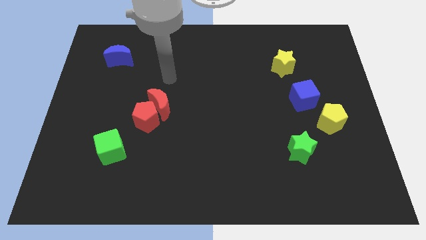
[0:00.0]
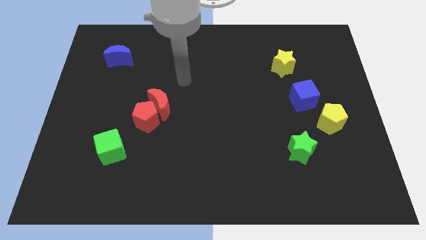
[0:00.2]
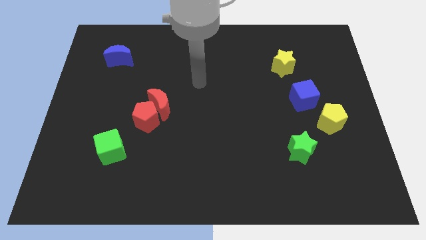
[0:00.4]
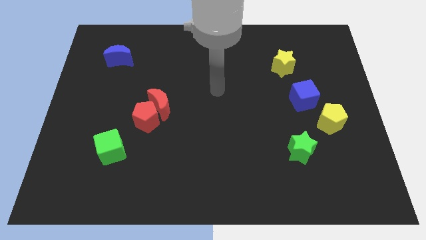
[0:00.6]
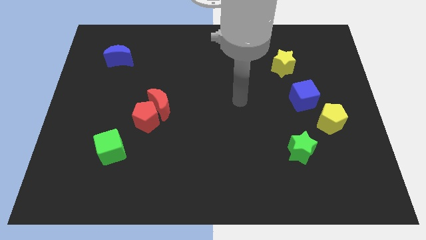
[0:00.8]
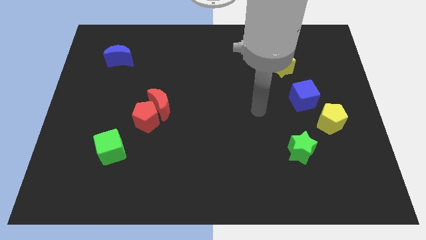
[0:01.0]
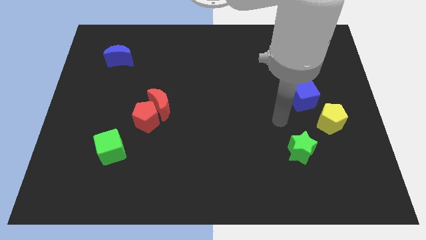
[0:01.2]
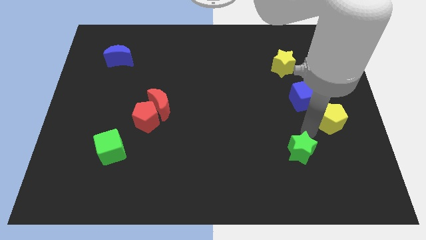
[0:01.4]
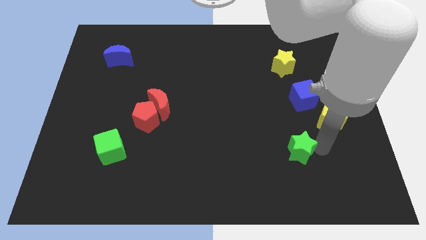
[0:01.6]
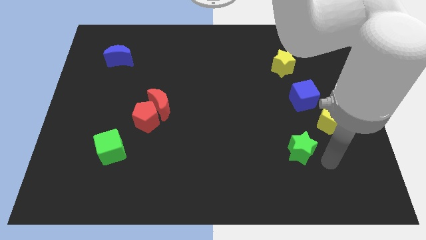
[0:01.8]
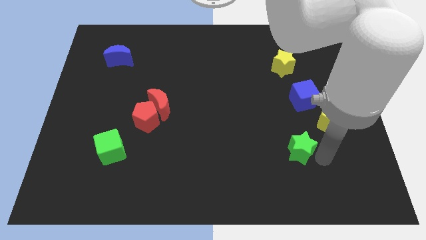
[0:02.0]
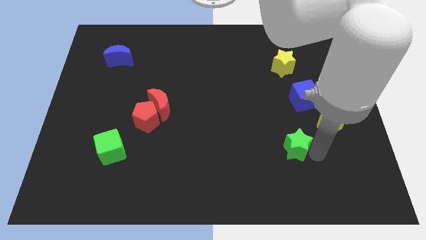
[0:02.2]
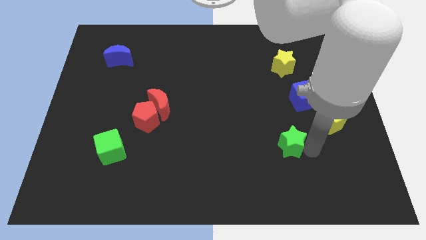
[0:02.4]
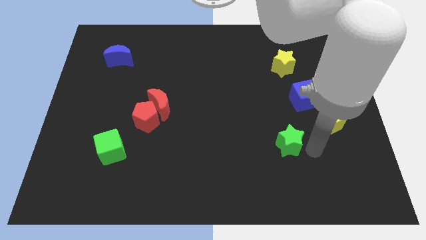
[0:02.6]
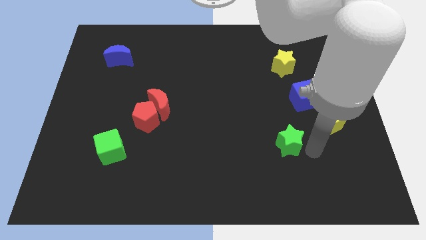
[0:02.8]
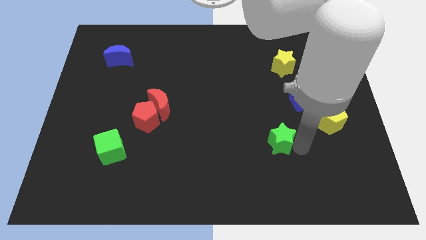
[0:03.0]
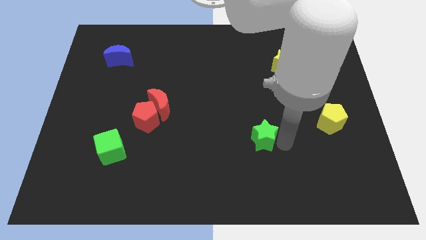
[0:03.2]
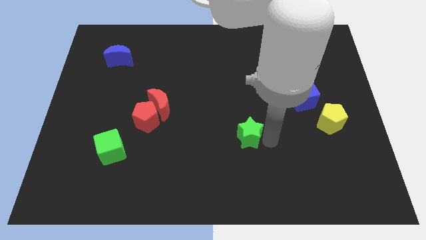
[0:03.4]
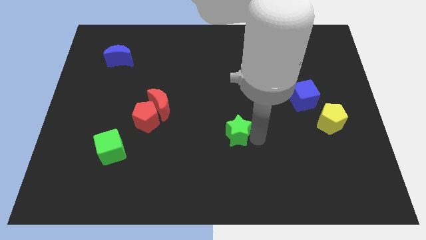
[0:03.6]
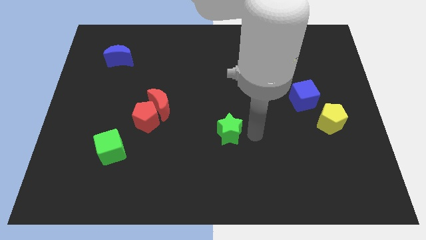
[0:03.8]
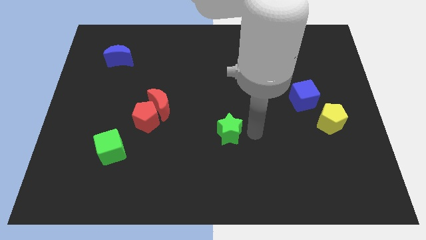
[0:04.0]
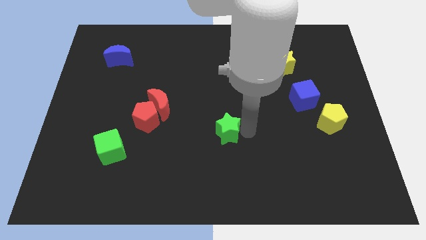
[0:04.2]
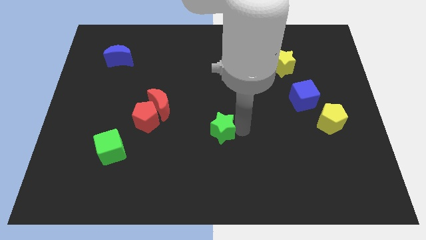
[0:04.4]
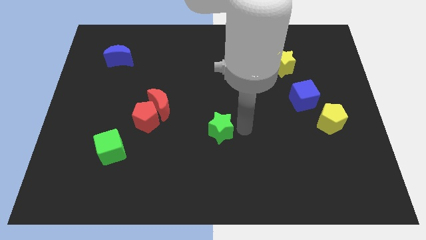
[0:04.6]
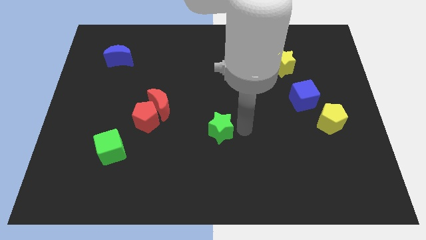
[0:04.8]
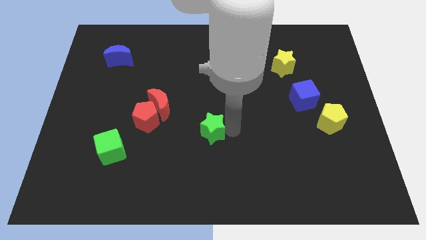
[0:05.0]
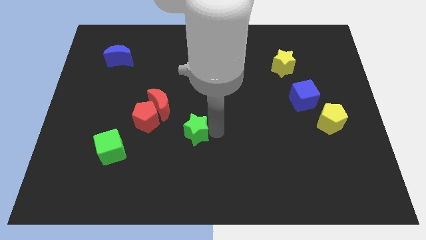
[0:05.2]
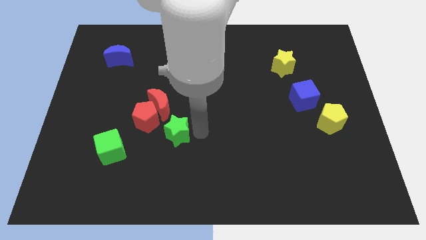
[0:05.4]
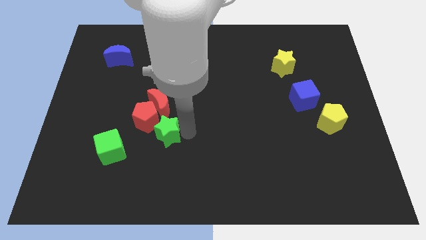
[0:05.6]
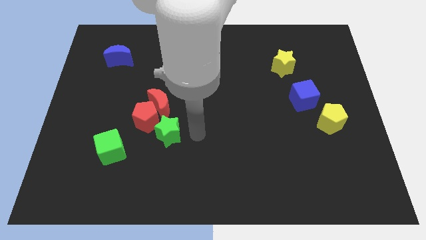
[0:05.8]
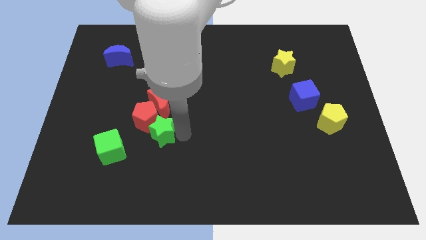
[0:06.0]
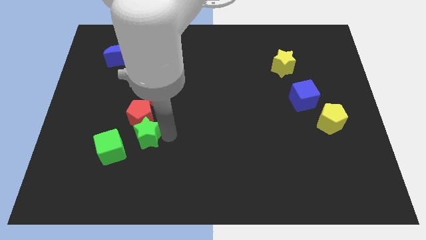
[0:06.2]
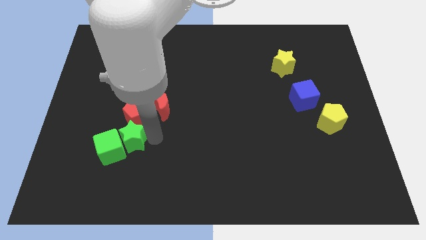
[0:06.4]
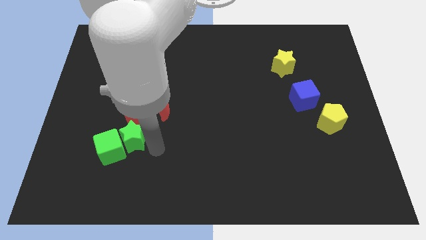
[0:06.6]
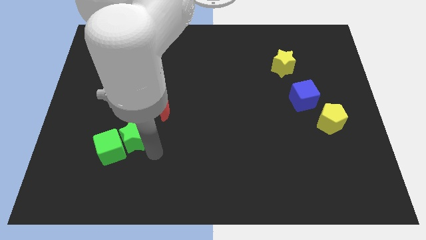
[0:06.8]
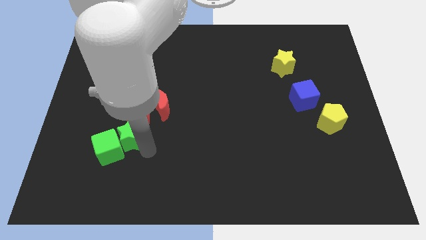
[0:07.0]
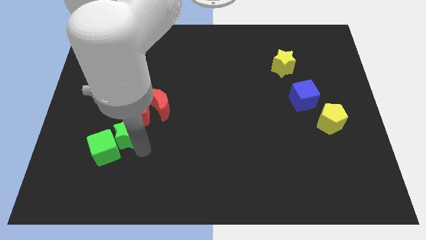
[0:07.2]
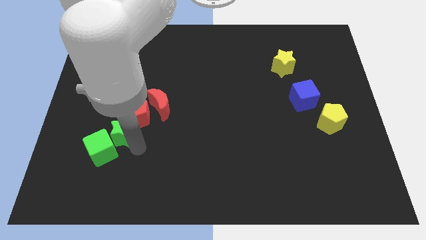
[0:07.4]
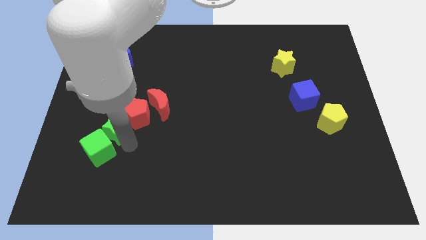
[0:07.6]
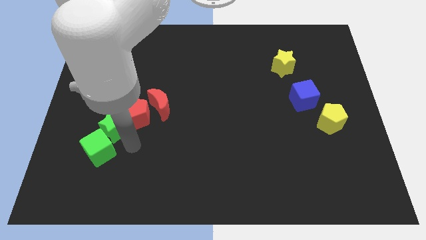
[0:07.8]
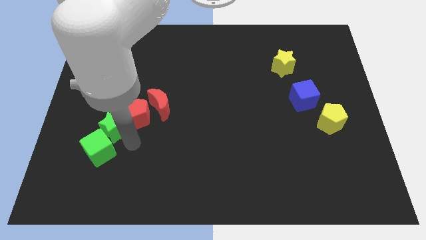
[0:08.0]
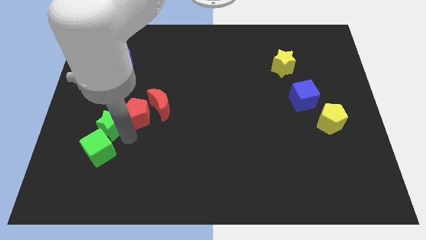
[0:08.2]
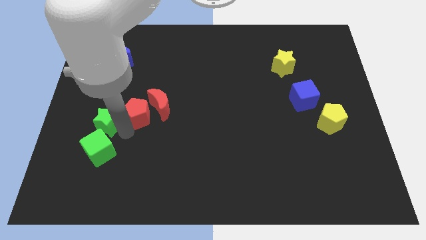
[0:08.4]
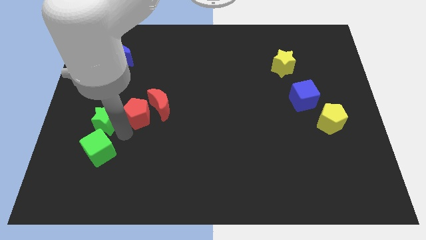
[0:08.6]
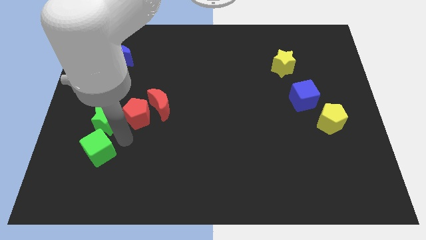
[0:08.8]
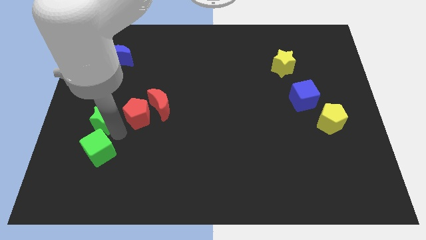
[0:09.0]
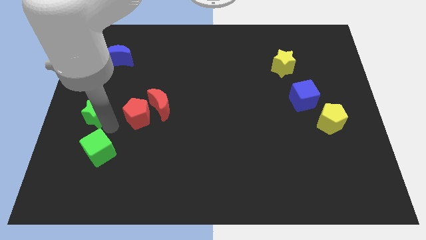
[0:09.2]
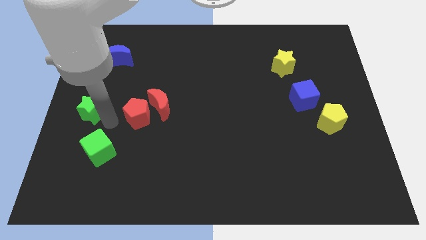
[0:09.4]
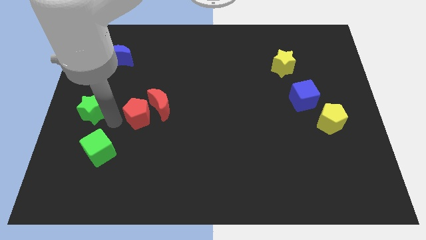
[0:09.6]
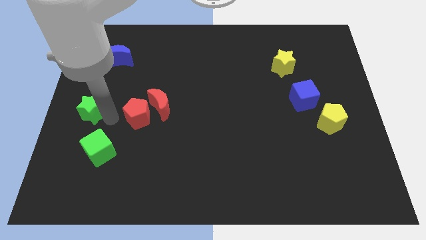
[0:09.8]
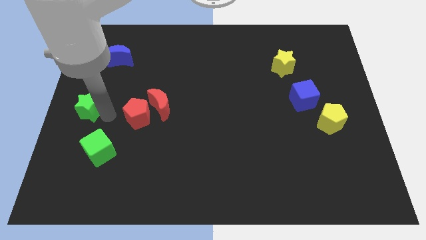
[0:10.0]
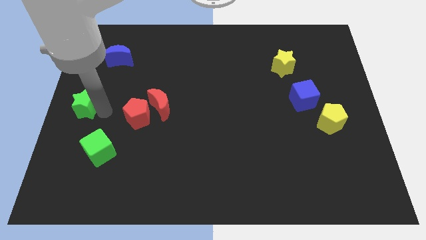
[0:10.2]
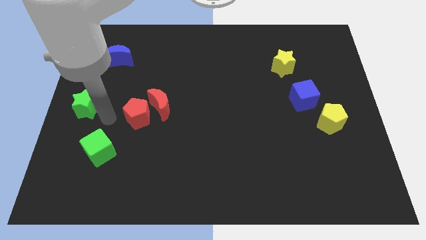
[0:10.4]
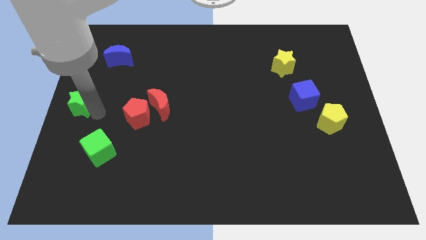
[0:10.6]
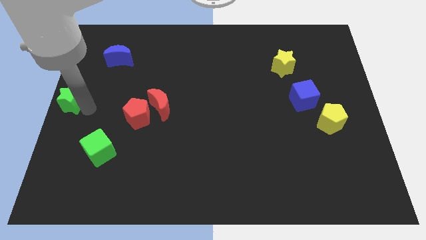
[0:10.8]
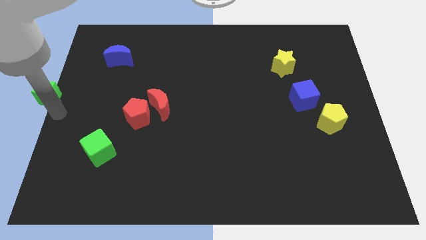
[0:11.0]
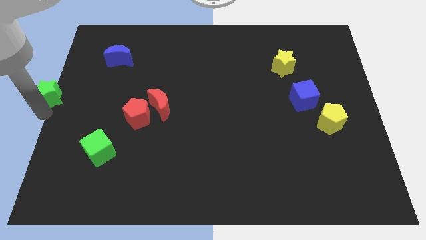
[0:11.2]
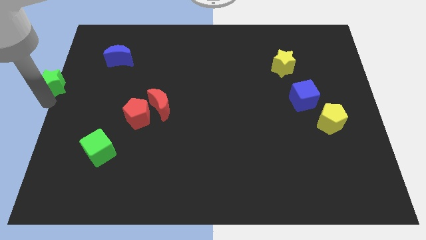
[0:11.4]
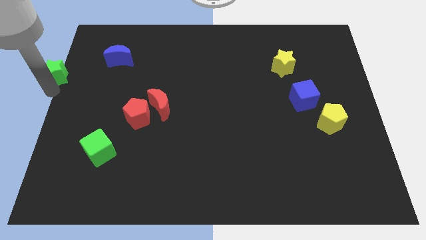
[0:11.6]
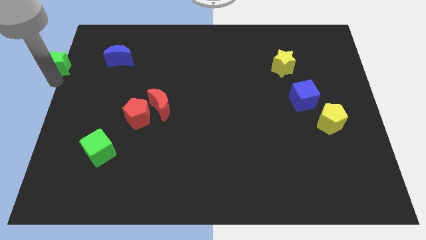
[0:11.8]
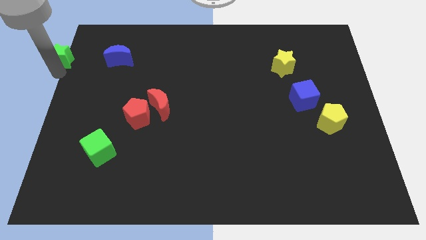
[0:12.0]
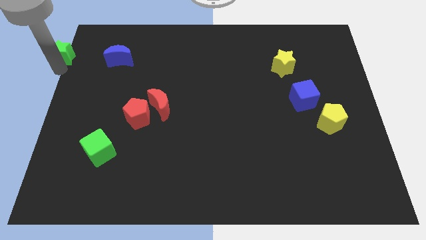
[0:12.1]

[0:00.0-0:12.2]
put the green star to the top left
